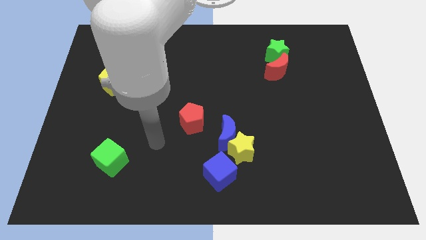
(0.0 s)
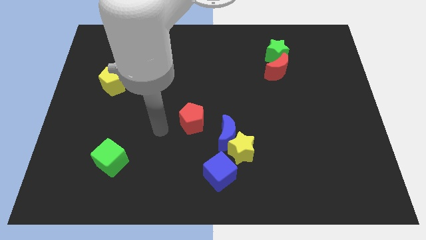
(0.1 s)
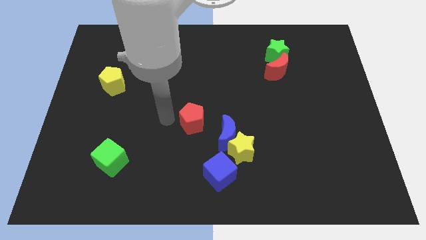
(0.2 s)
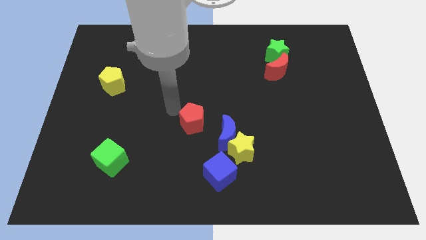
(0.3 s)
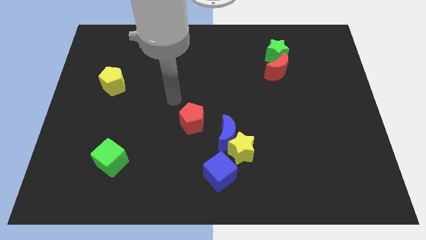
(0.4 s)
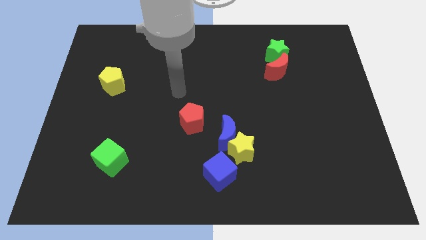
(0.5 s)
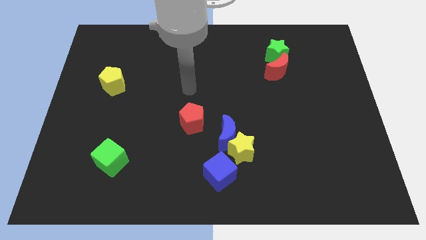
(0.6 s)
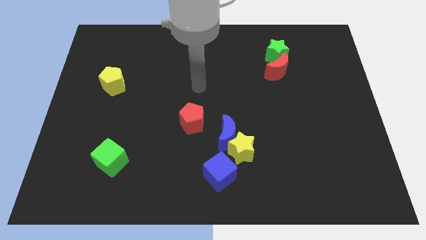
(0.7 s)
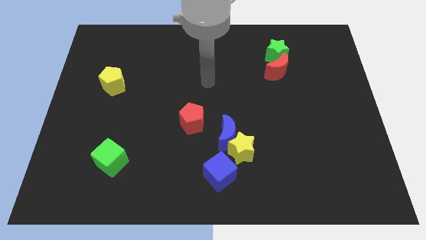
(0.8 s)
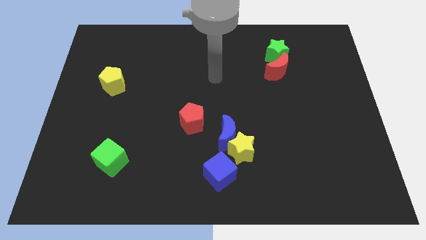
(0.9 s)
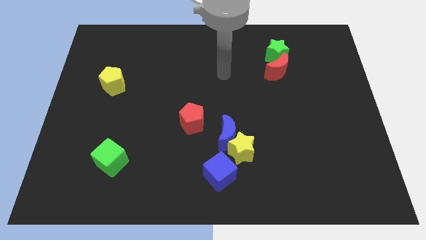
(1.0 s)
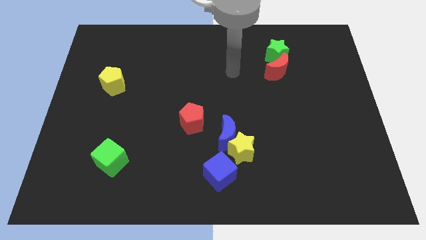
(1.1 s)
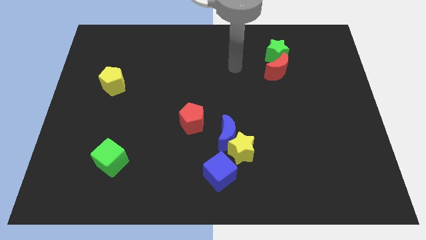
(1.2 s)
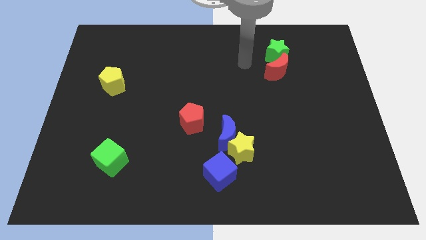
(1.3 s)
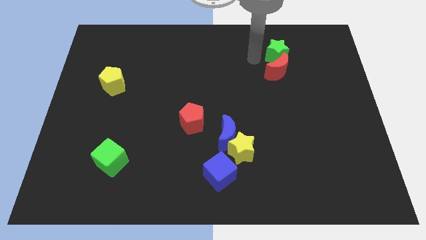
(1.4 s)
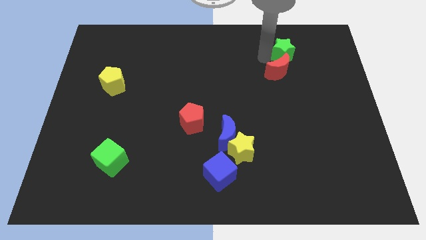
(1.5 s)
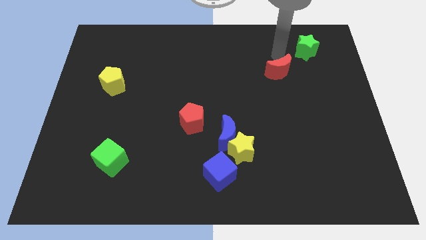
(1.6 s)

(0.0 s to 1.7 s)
separate the red moon from the green star

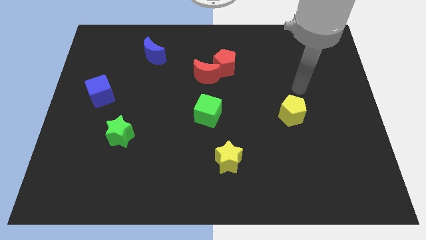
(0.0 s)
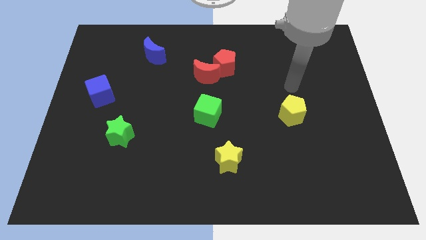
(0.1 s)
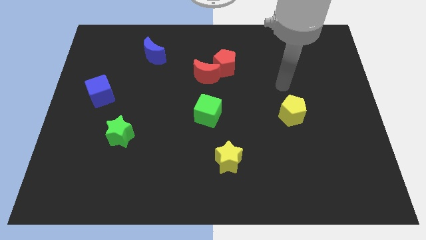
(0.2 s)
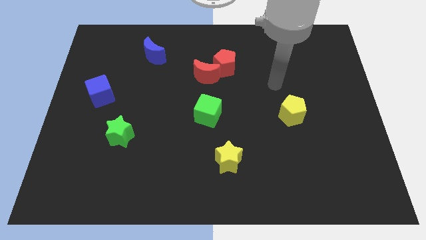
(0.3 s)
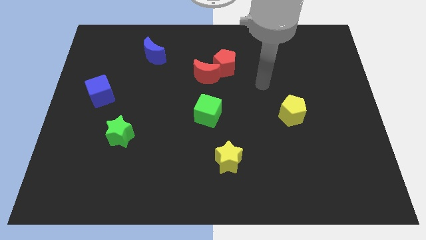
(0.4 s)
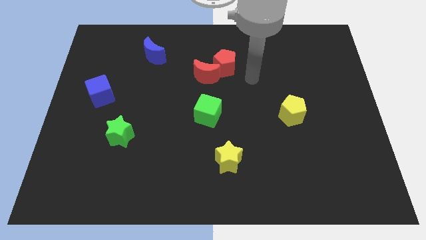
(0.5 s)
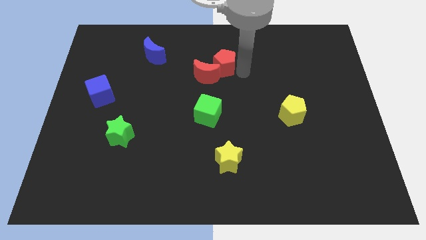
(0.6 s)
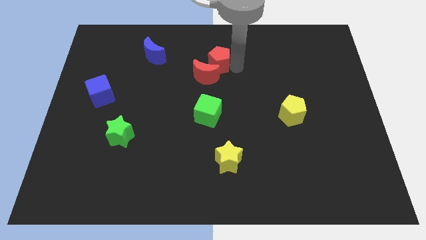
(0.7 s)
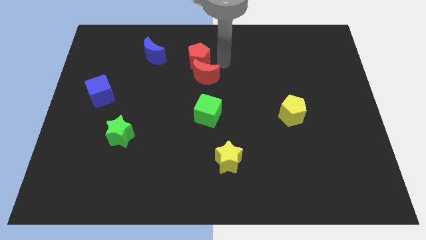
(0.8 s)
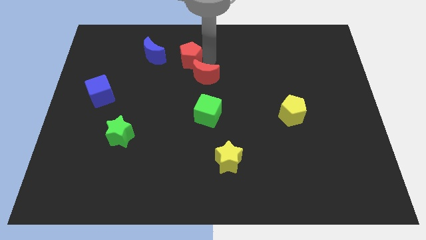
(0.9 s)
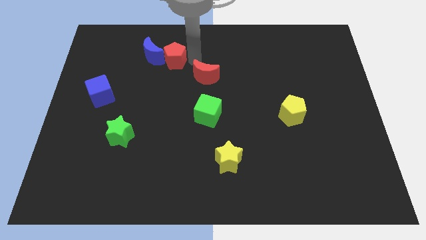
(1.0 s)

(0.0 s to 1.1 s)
pull the red moon apart from the red pentagon

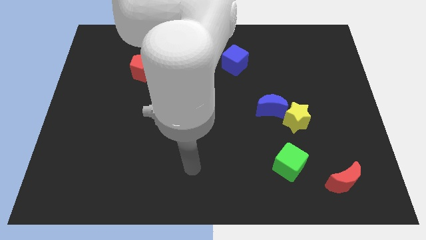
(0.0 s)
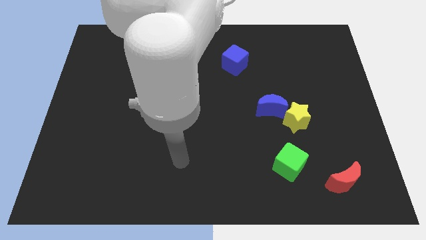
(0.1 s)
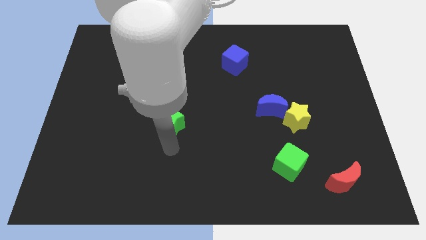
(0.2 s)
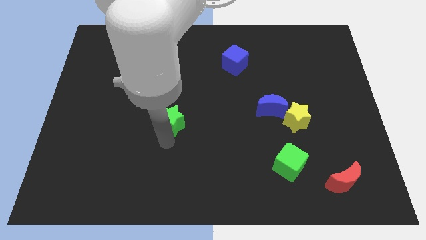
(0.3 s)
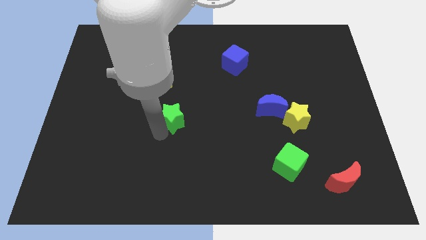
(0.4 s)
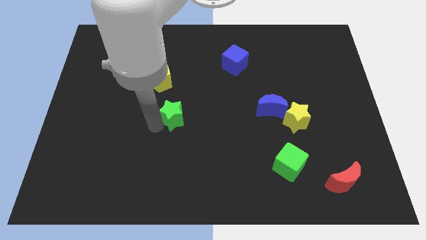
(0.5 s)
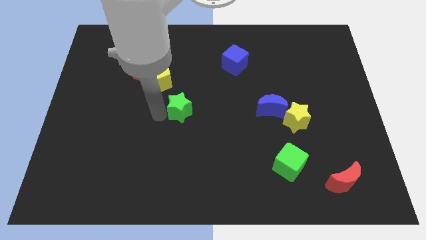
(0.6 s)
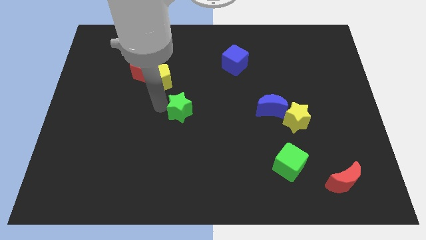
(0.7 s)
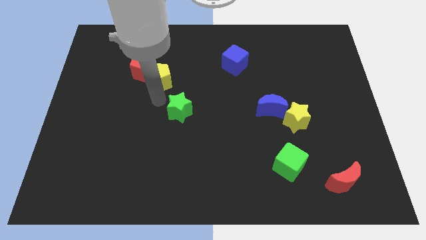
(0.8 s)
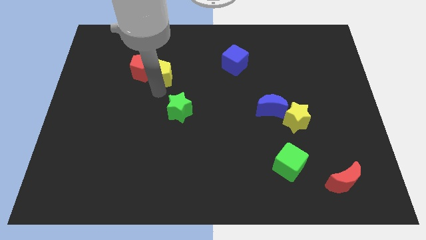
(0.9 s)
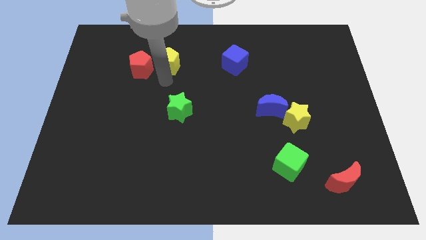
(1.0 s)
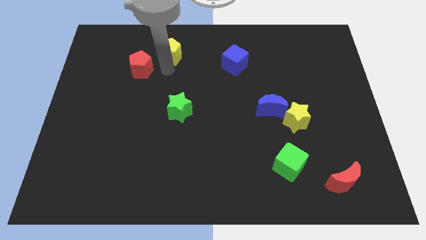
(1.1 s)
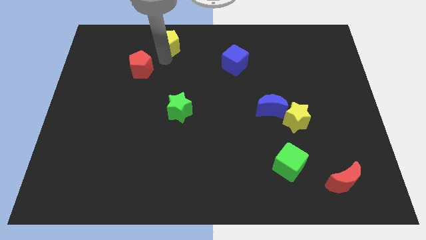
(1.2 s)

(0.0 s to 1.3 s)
separate the red pentagon from the yellow pentagon

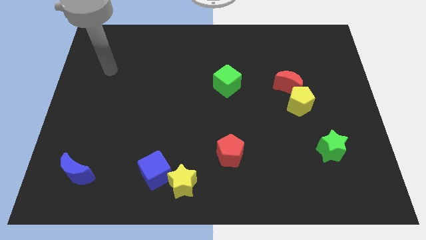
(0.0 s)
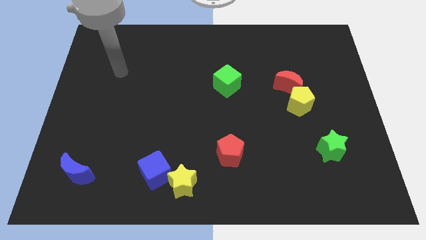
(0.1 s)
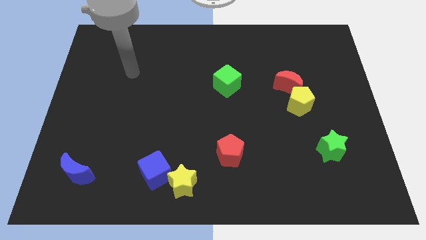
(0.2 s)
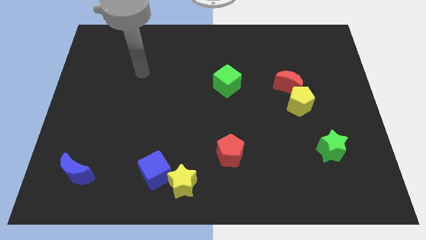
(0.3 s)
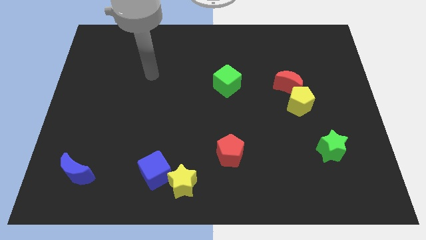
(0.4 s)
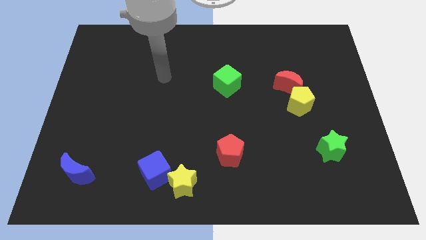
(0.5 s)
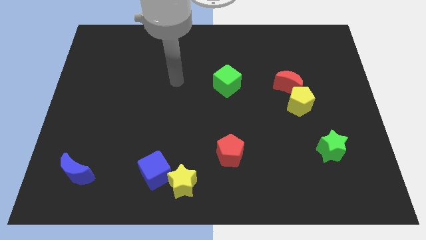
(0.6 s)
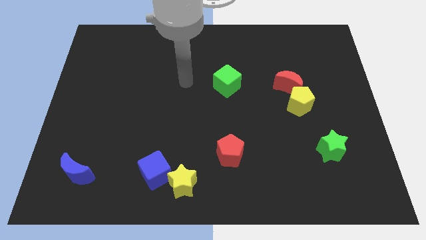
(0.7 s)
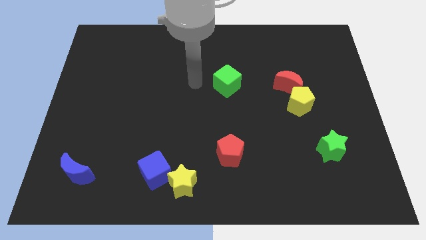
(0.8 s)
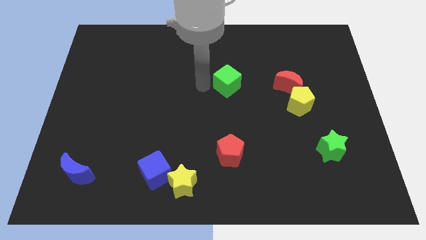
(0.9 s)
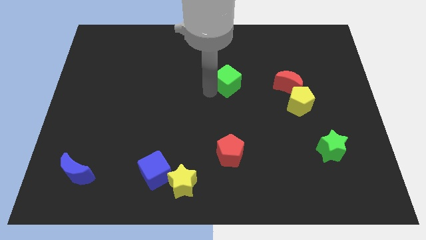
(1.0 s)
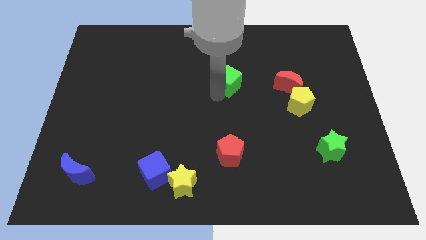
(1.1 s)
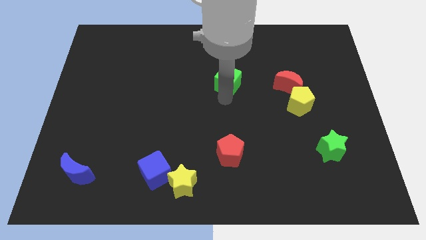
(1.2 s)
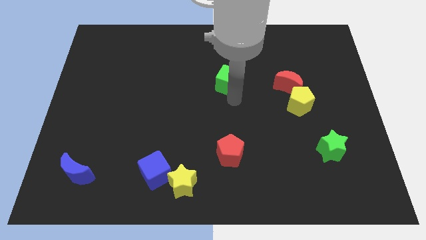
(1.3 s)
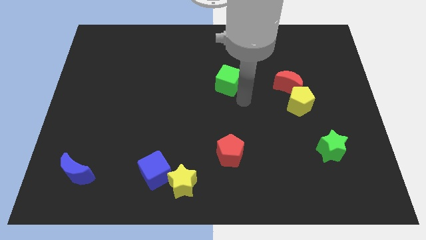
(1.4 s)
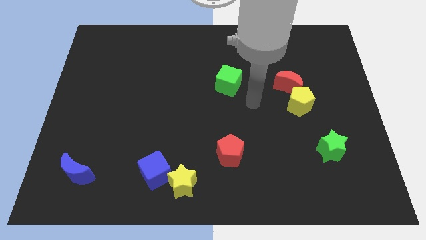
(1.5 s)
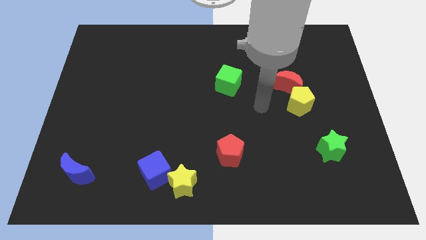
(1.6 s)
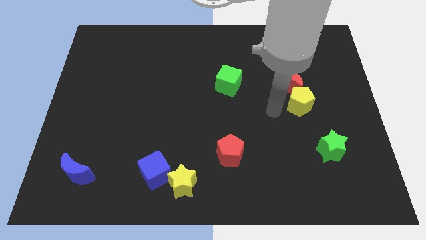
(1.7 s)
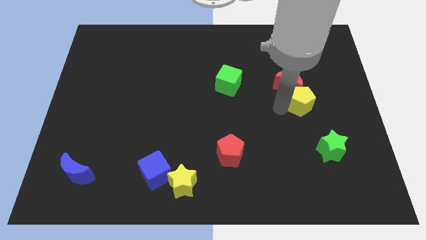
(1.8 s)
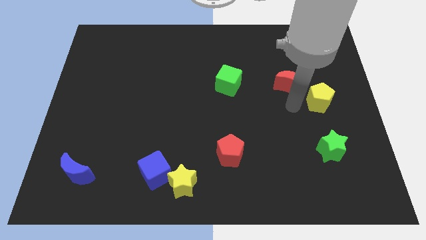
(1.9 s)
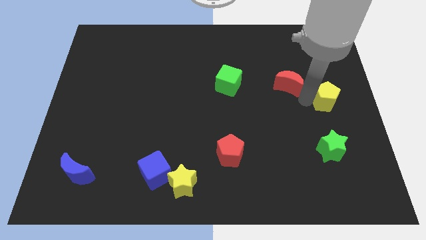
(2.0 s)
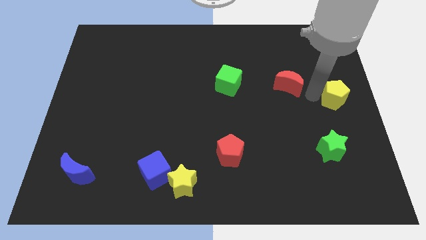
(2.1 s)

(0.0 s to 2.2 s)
move the red moon away from the yellow pentagon

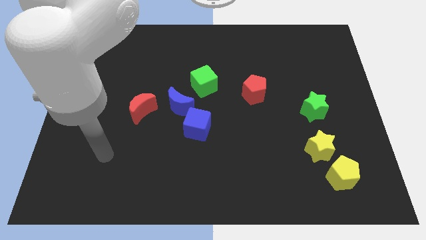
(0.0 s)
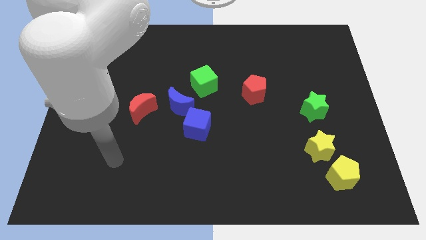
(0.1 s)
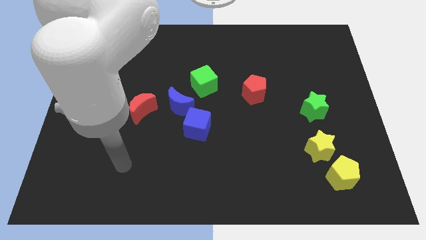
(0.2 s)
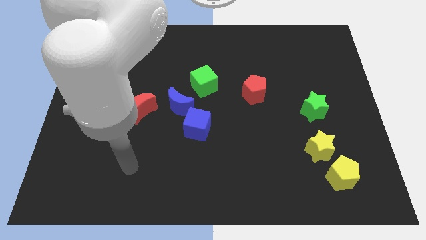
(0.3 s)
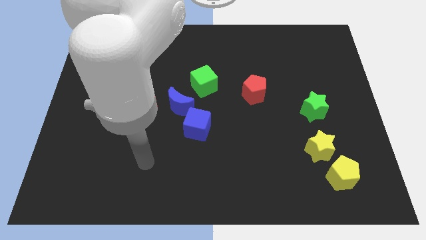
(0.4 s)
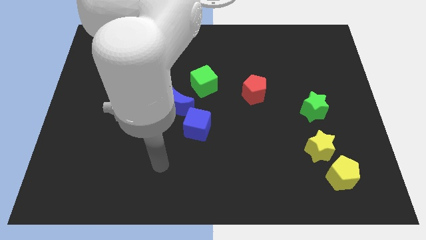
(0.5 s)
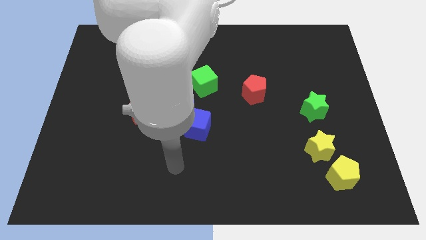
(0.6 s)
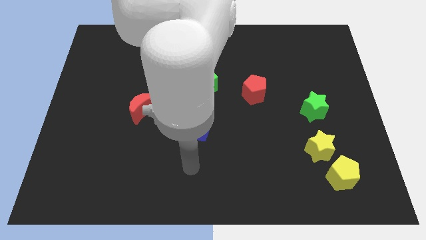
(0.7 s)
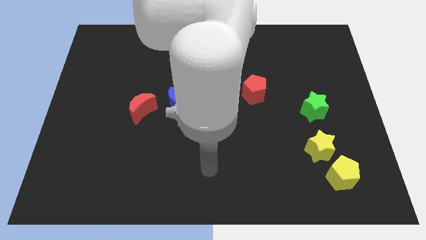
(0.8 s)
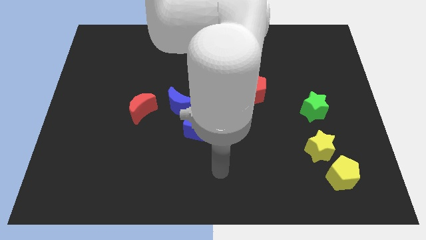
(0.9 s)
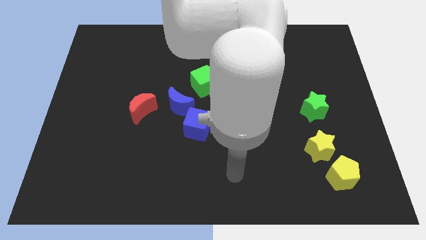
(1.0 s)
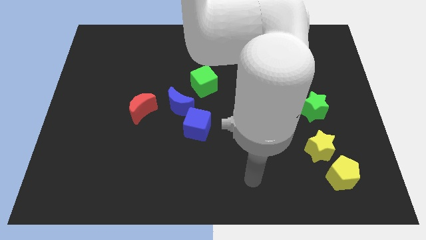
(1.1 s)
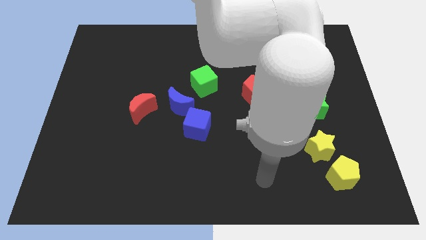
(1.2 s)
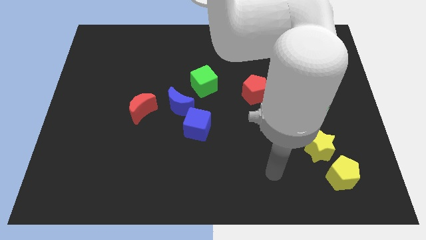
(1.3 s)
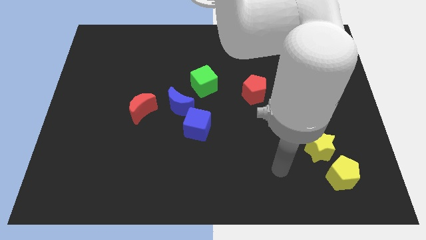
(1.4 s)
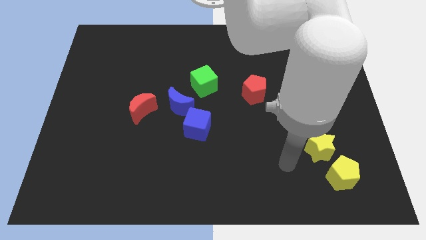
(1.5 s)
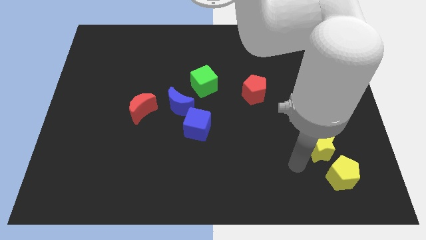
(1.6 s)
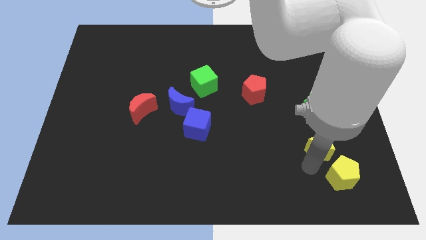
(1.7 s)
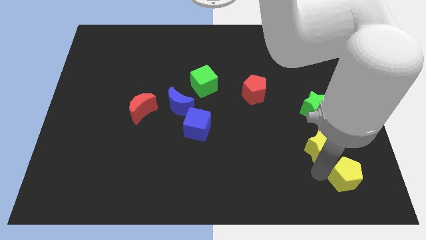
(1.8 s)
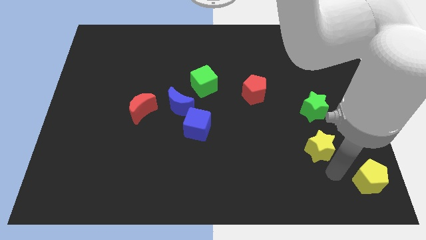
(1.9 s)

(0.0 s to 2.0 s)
pull the yellow star apart from the yellow pentagon

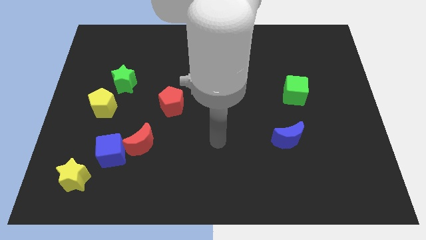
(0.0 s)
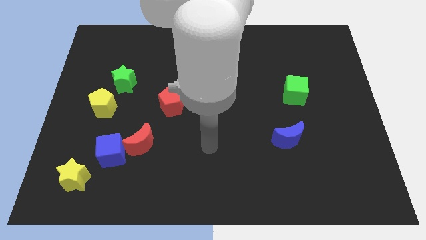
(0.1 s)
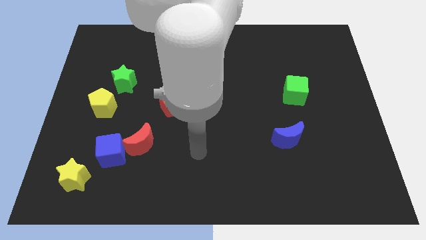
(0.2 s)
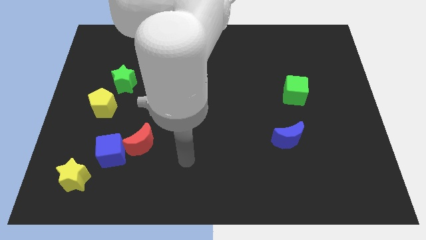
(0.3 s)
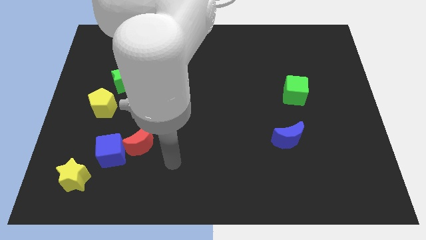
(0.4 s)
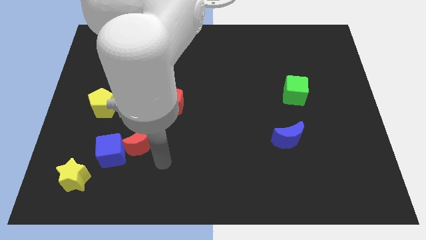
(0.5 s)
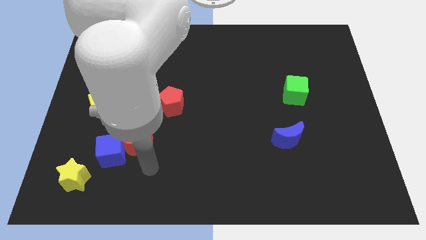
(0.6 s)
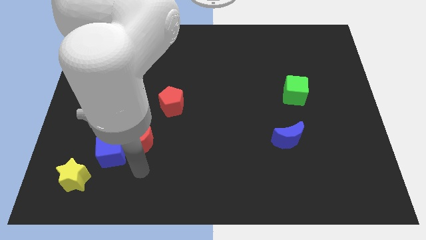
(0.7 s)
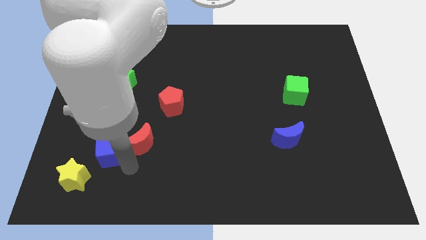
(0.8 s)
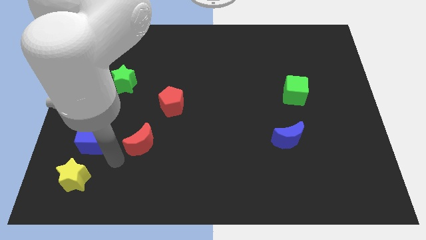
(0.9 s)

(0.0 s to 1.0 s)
move the red moon away from the blue cube
